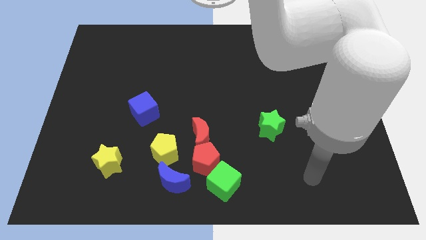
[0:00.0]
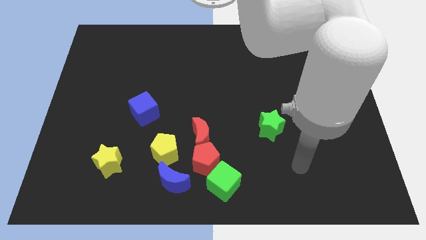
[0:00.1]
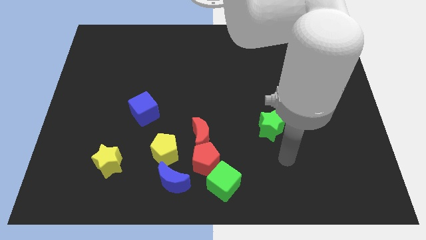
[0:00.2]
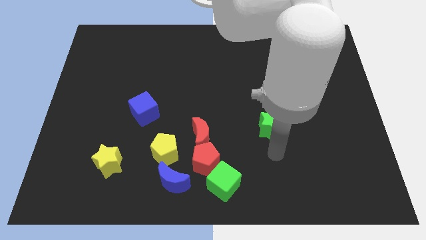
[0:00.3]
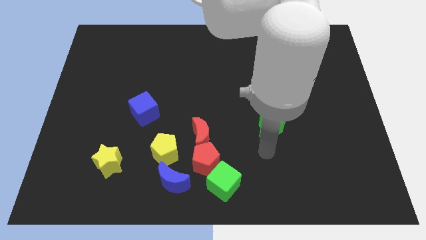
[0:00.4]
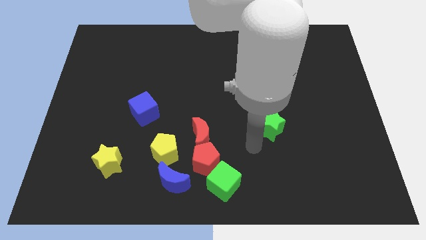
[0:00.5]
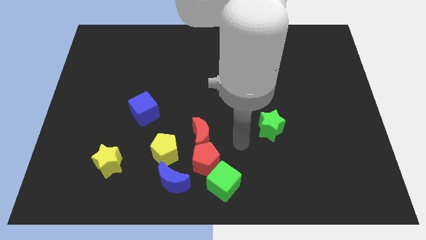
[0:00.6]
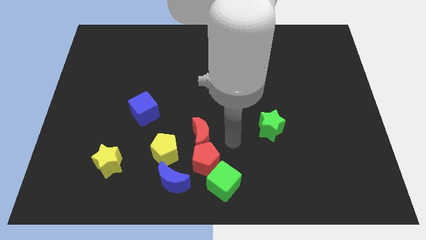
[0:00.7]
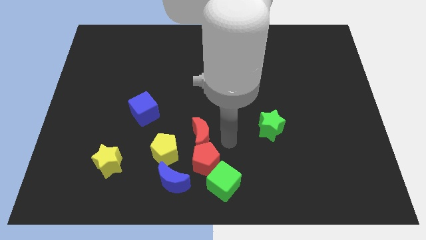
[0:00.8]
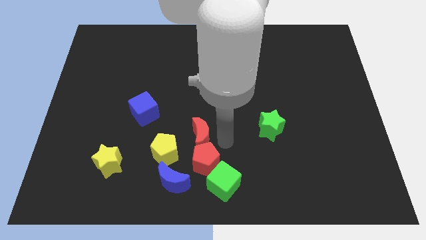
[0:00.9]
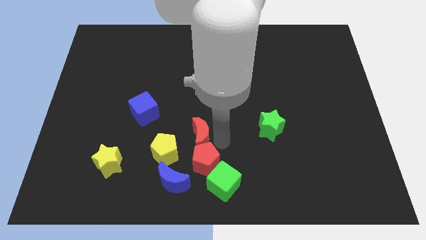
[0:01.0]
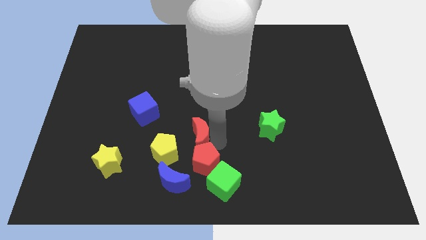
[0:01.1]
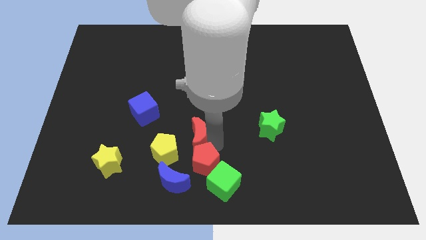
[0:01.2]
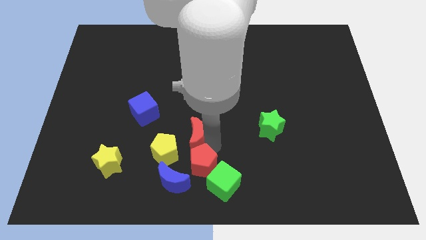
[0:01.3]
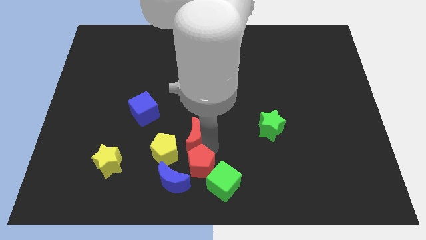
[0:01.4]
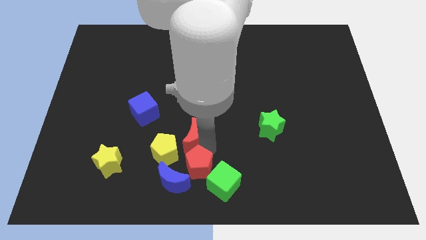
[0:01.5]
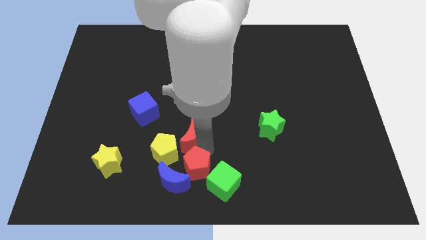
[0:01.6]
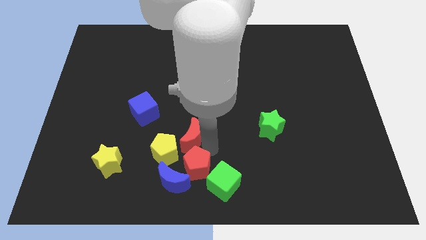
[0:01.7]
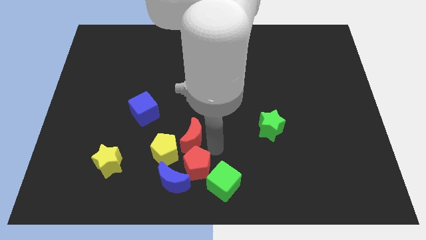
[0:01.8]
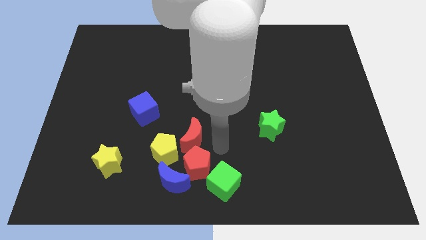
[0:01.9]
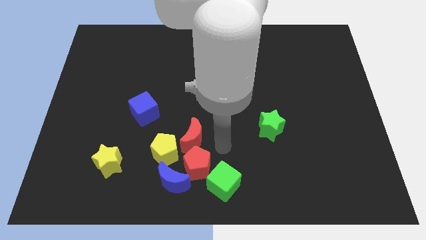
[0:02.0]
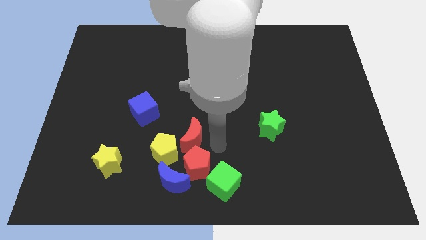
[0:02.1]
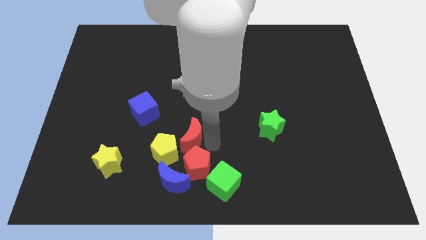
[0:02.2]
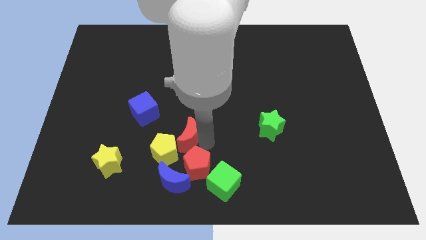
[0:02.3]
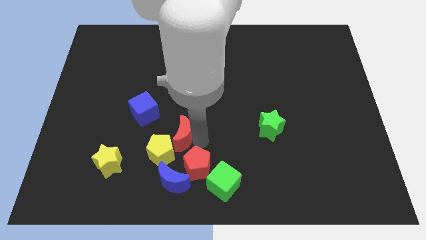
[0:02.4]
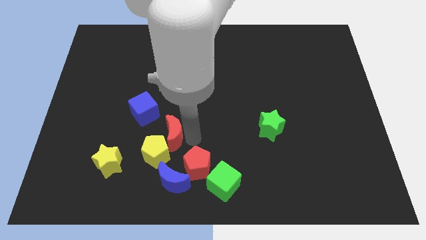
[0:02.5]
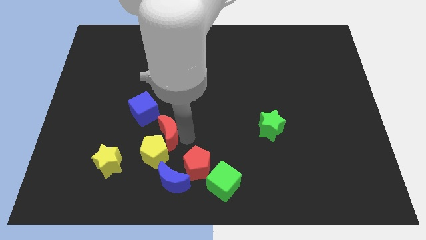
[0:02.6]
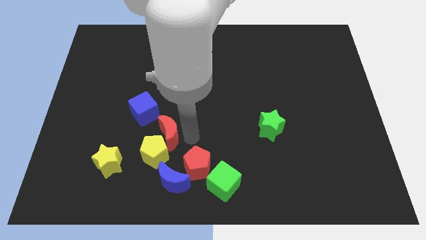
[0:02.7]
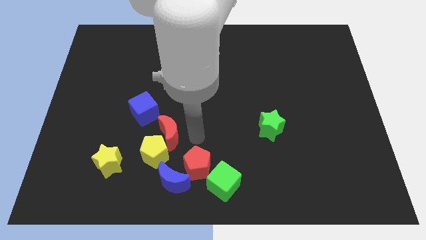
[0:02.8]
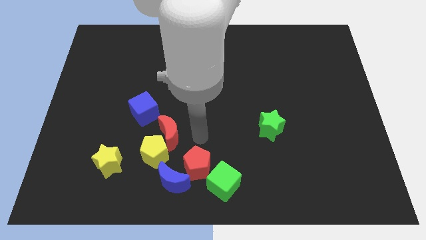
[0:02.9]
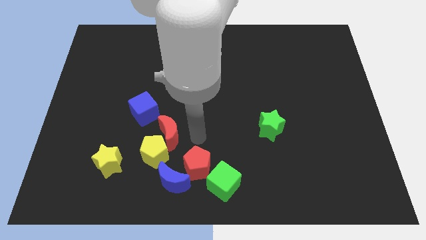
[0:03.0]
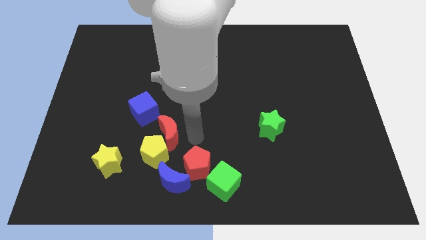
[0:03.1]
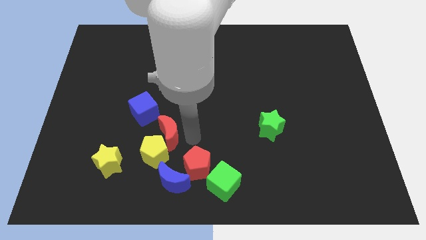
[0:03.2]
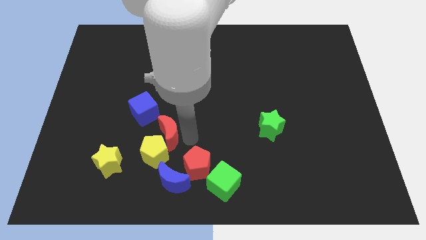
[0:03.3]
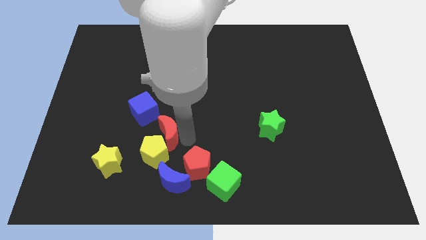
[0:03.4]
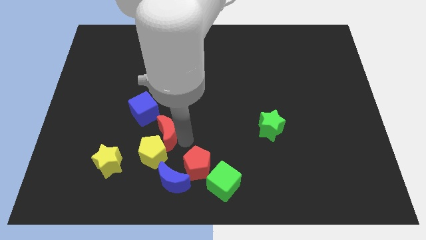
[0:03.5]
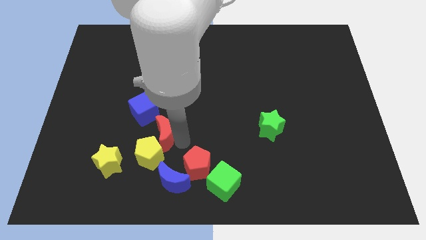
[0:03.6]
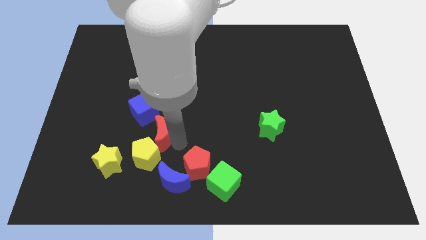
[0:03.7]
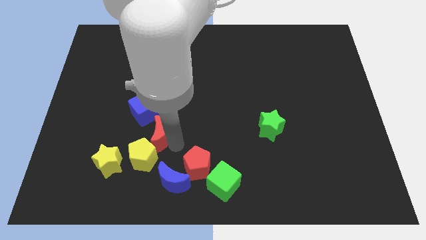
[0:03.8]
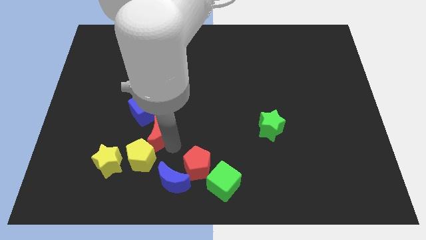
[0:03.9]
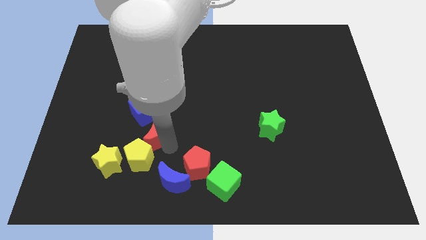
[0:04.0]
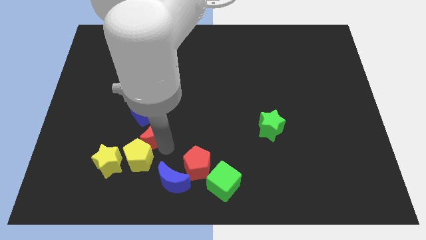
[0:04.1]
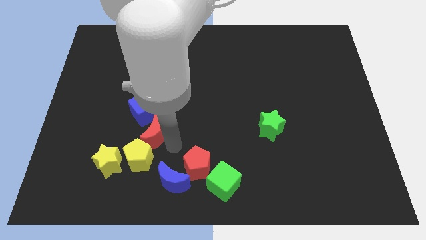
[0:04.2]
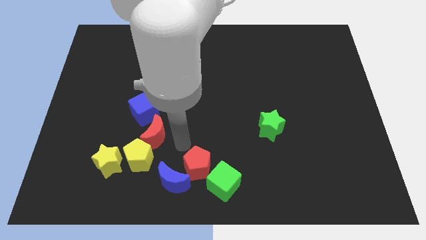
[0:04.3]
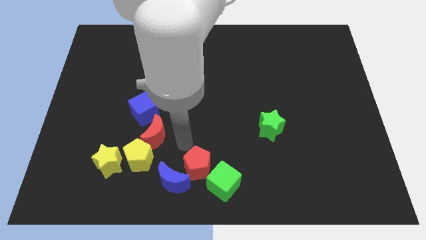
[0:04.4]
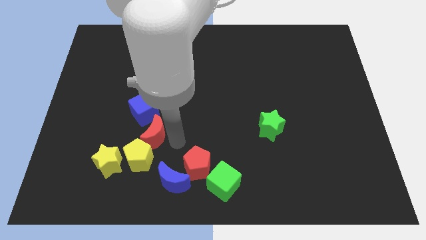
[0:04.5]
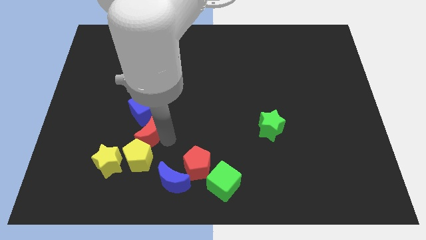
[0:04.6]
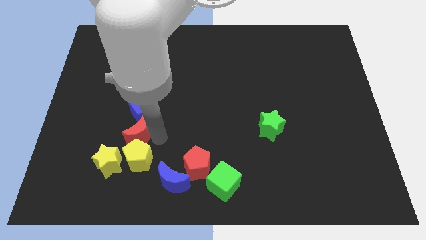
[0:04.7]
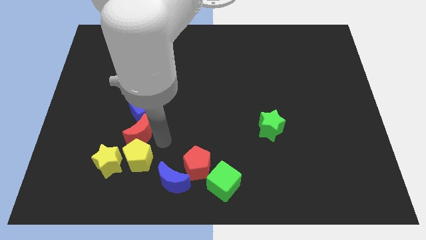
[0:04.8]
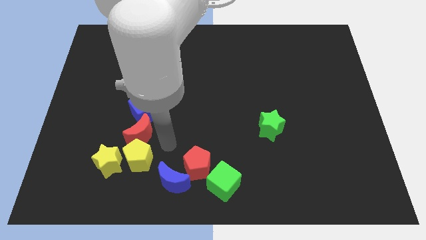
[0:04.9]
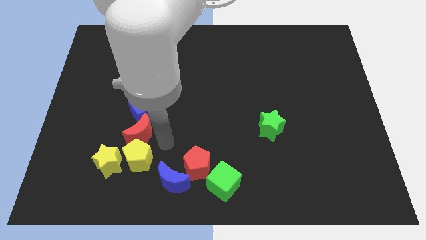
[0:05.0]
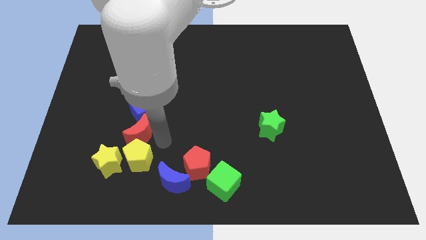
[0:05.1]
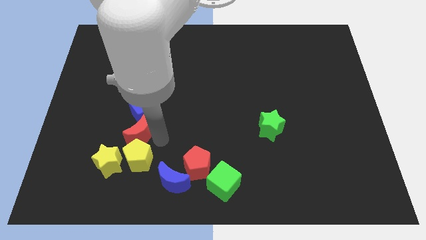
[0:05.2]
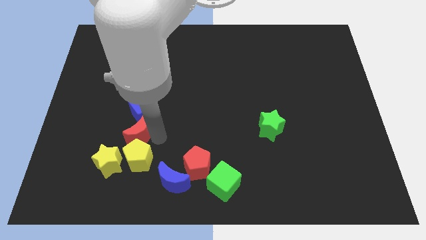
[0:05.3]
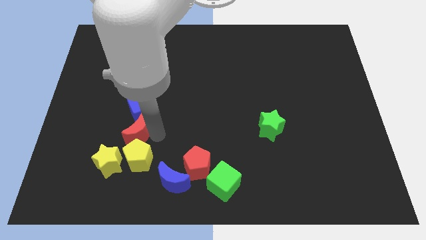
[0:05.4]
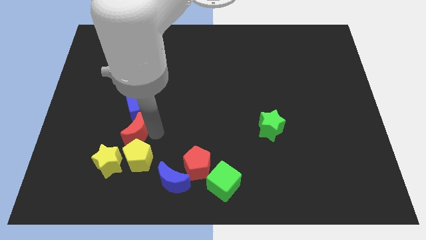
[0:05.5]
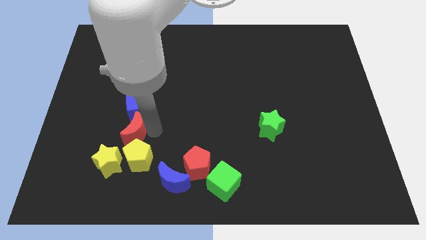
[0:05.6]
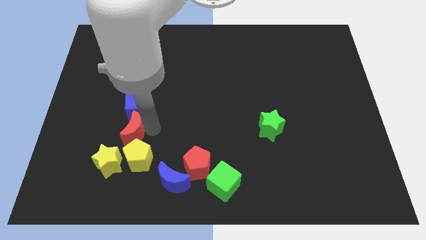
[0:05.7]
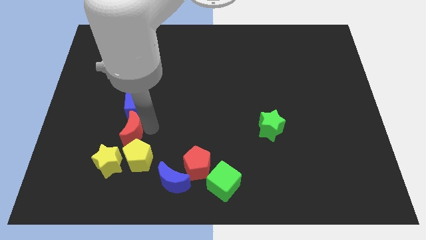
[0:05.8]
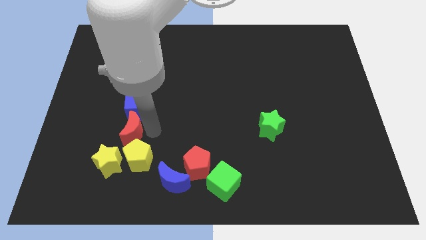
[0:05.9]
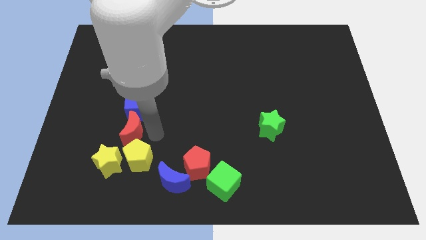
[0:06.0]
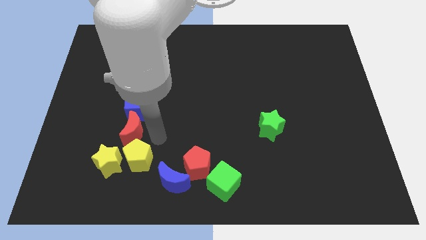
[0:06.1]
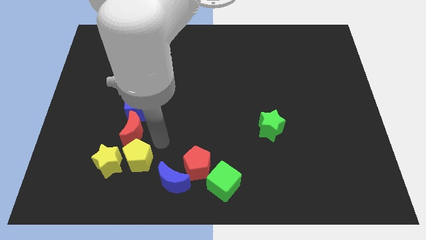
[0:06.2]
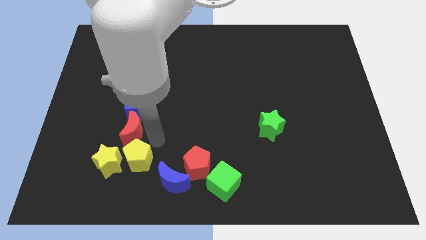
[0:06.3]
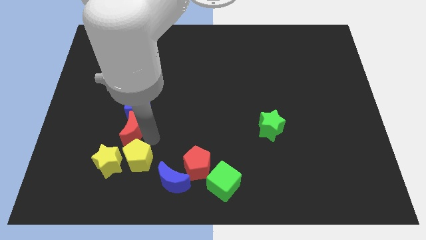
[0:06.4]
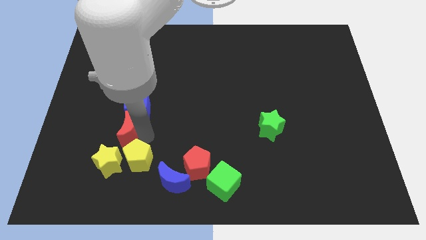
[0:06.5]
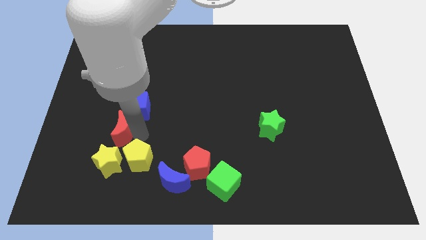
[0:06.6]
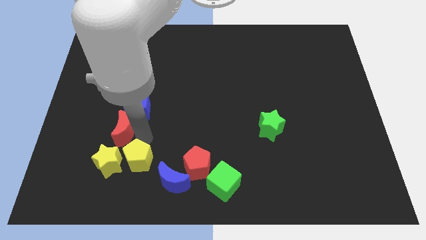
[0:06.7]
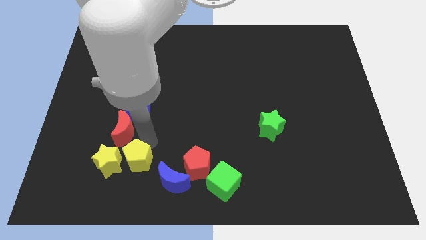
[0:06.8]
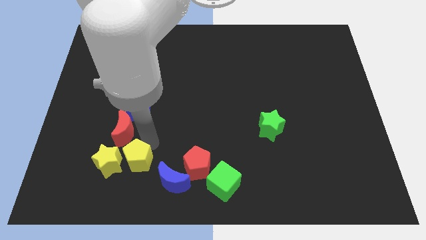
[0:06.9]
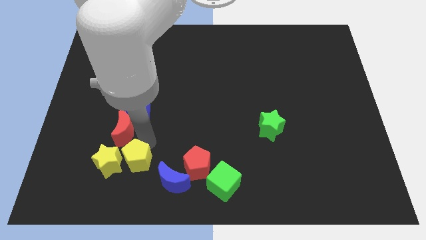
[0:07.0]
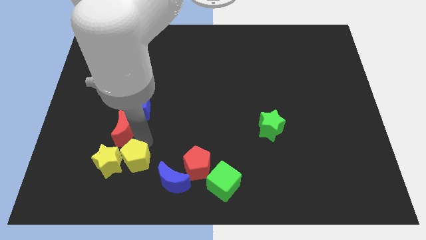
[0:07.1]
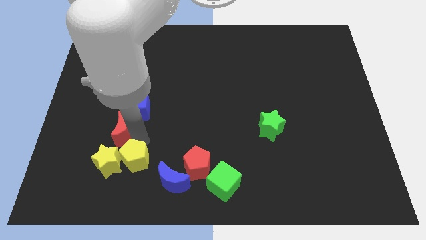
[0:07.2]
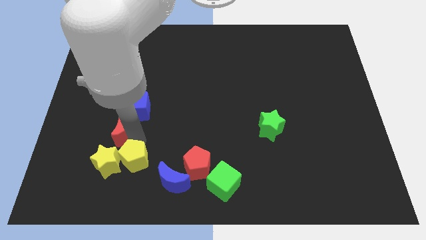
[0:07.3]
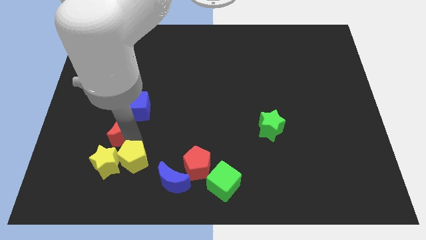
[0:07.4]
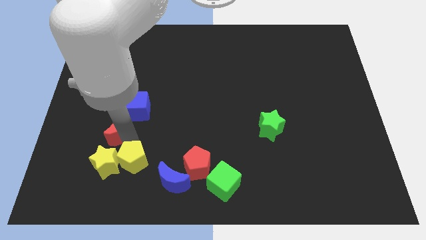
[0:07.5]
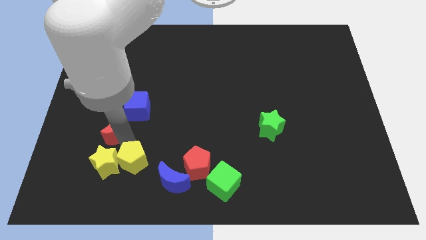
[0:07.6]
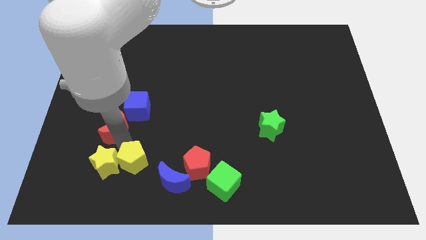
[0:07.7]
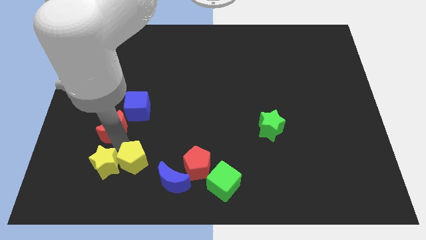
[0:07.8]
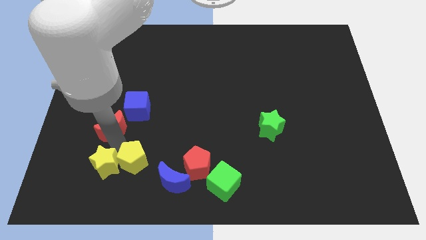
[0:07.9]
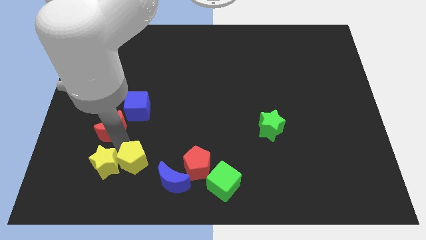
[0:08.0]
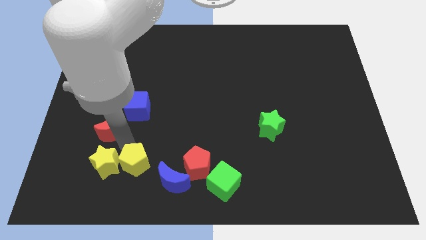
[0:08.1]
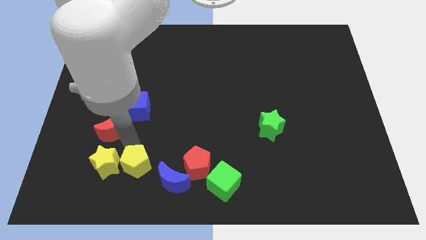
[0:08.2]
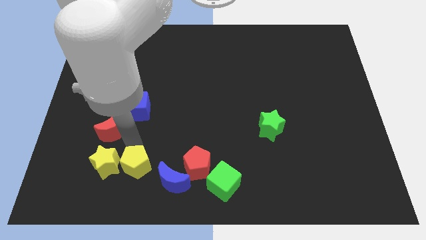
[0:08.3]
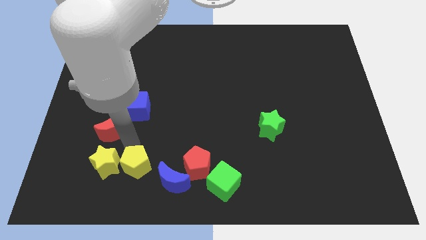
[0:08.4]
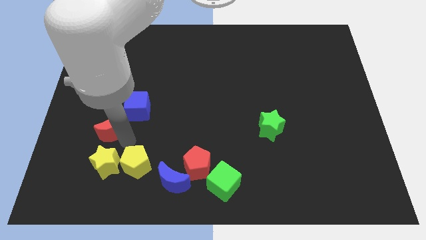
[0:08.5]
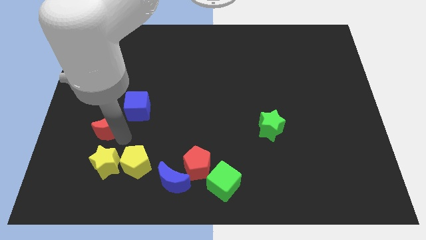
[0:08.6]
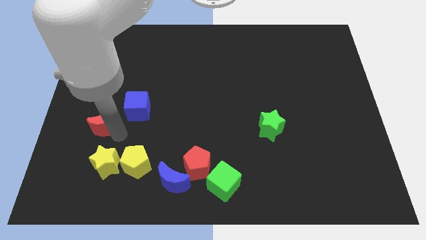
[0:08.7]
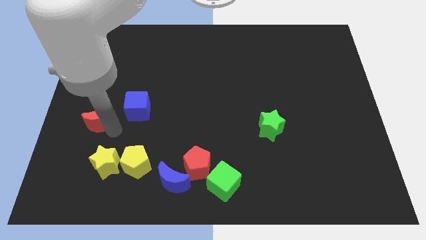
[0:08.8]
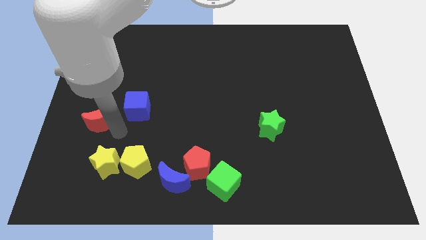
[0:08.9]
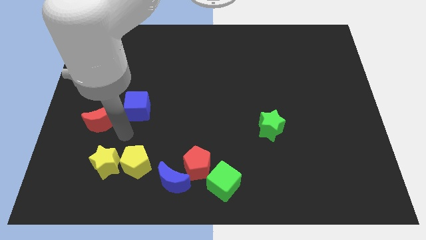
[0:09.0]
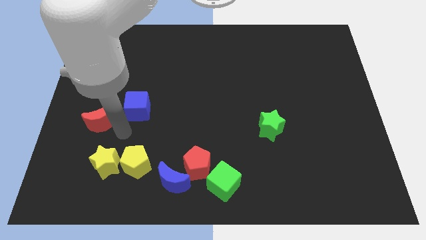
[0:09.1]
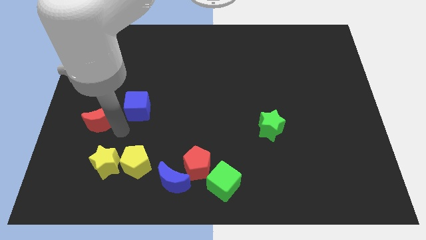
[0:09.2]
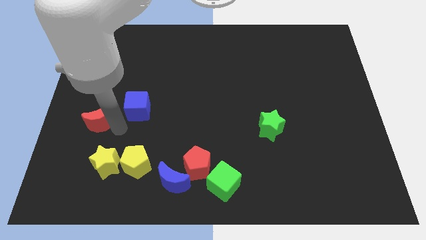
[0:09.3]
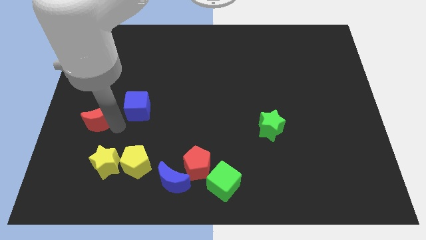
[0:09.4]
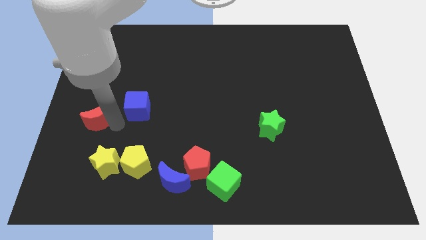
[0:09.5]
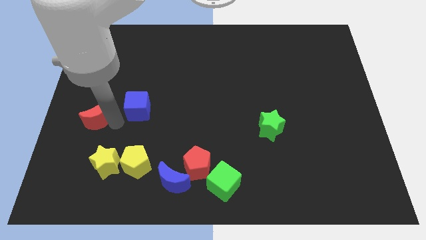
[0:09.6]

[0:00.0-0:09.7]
push the red moon to the center left
